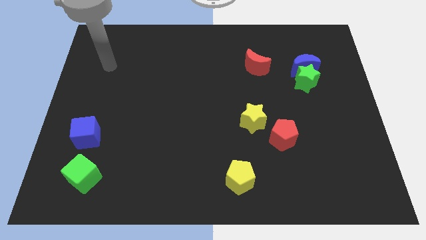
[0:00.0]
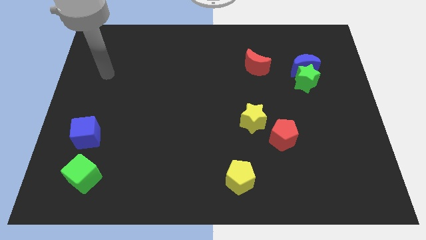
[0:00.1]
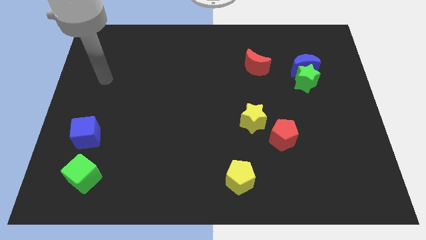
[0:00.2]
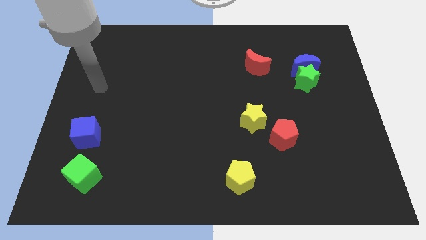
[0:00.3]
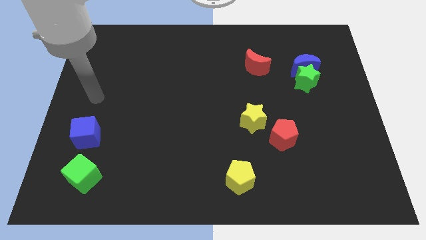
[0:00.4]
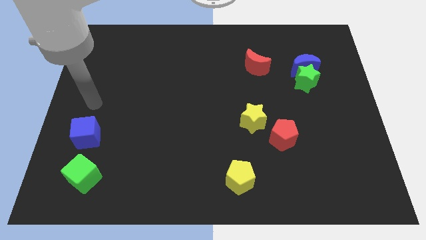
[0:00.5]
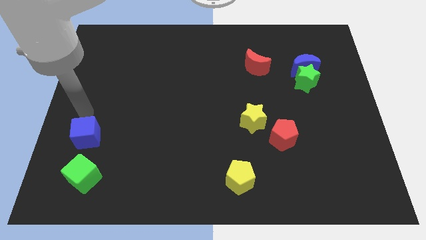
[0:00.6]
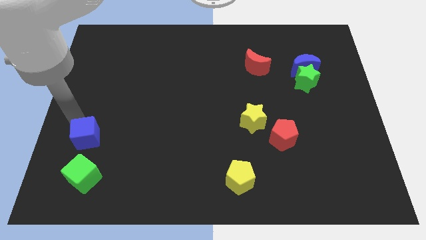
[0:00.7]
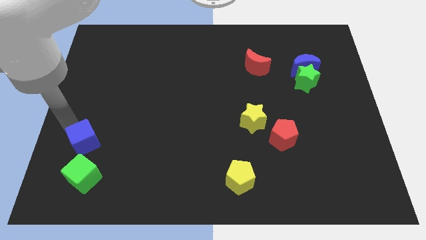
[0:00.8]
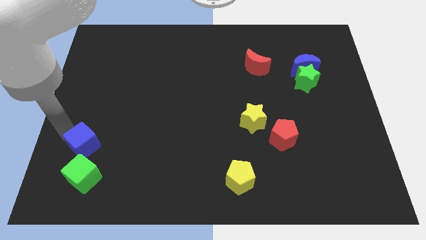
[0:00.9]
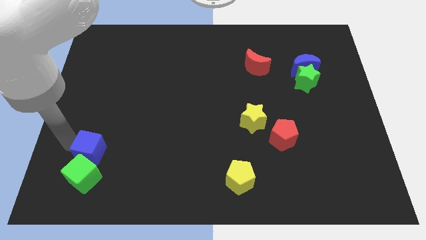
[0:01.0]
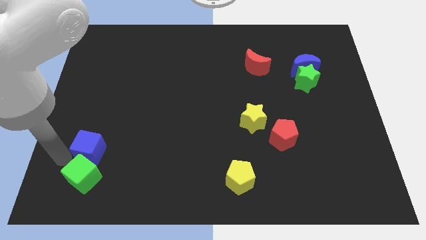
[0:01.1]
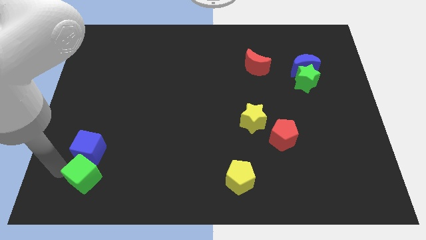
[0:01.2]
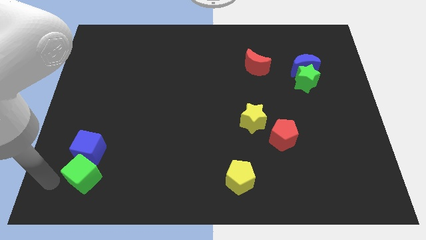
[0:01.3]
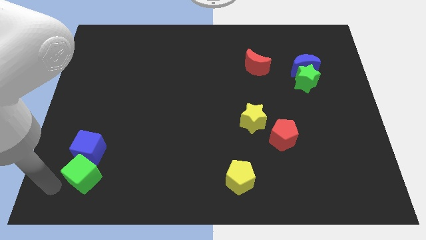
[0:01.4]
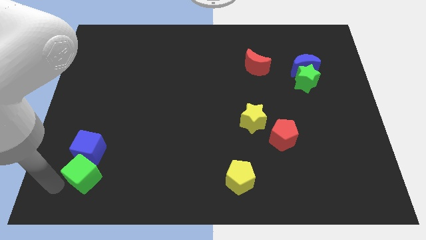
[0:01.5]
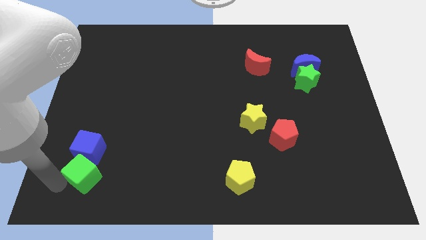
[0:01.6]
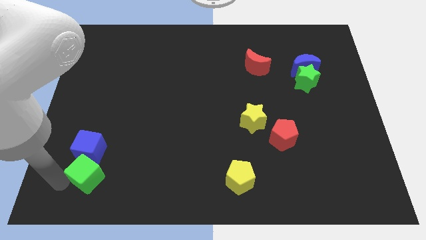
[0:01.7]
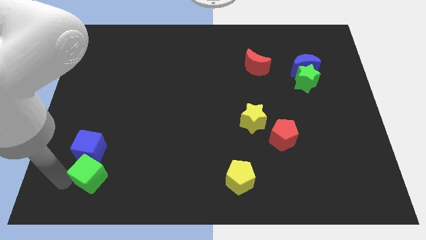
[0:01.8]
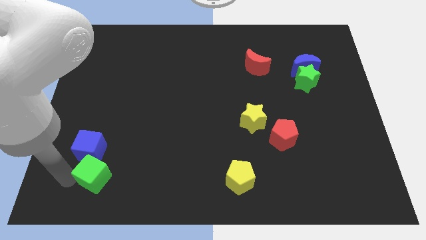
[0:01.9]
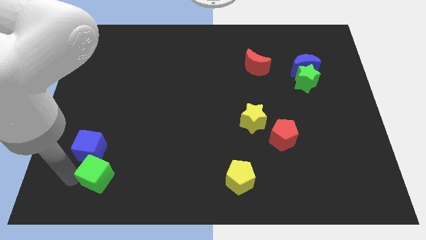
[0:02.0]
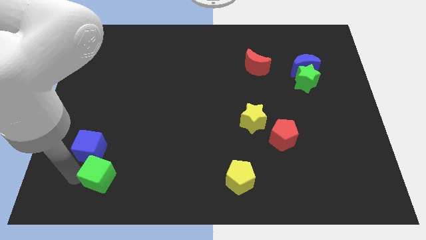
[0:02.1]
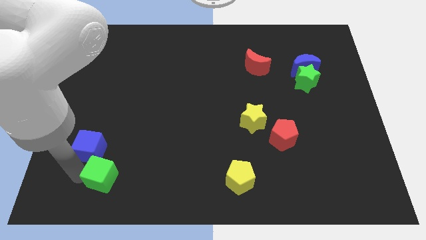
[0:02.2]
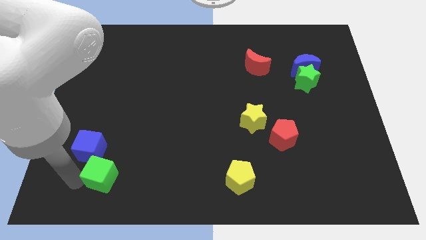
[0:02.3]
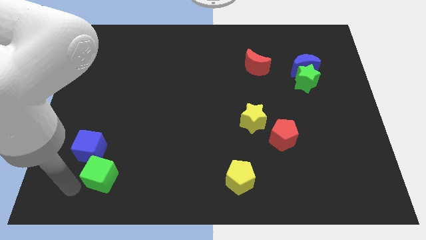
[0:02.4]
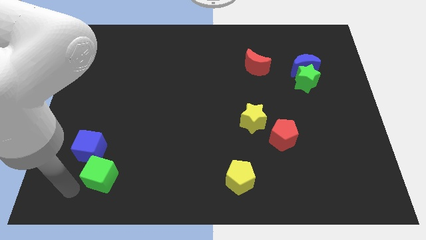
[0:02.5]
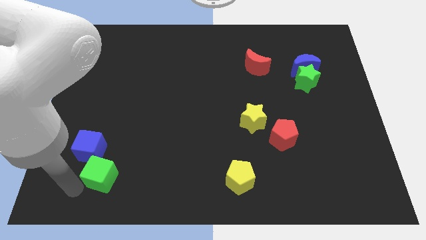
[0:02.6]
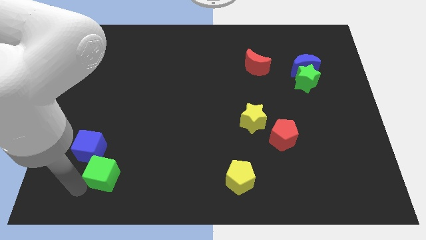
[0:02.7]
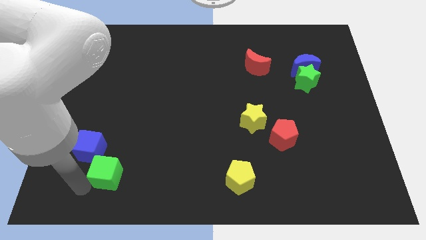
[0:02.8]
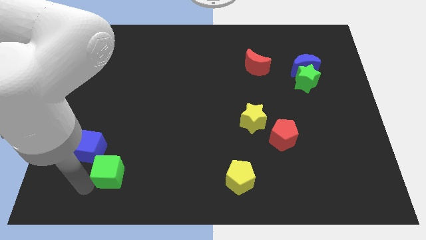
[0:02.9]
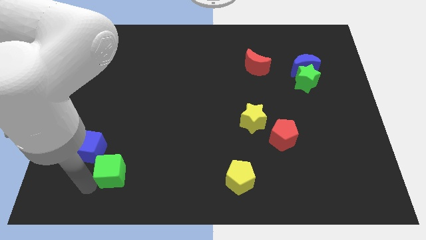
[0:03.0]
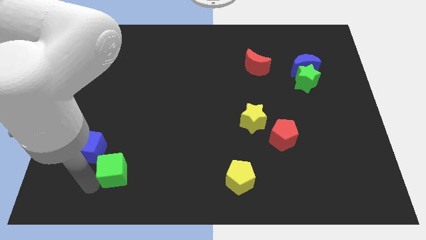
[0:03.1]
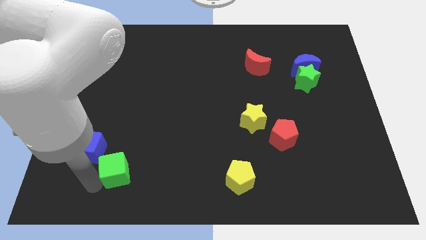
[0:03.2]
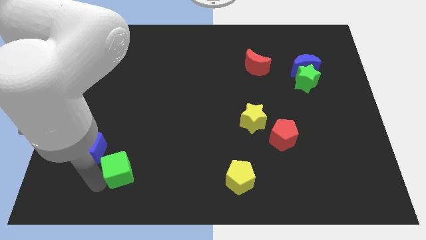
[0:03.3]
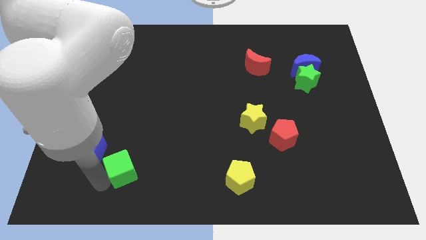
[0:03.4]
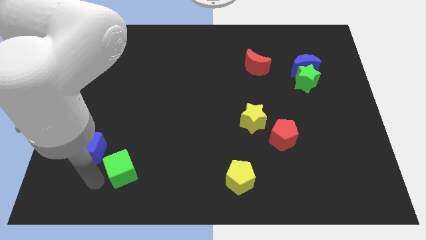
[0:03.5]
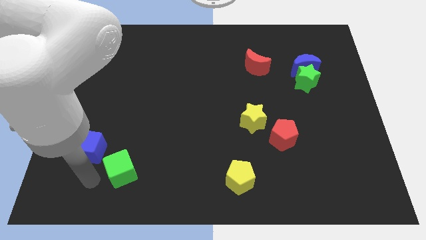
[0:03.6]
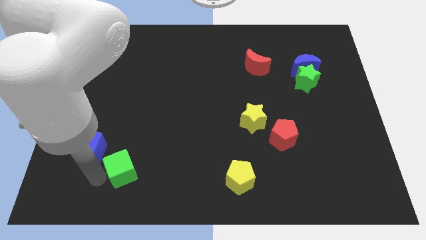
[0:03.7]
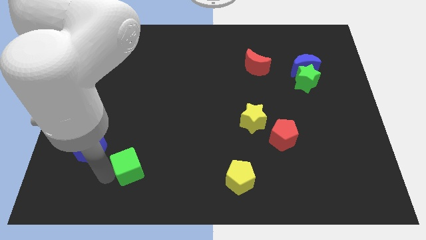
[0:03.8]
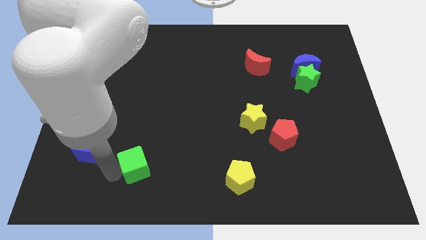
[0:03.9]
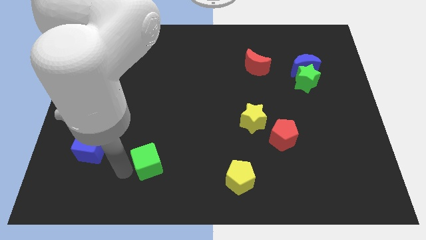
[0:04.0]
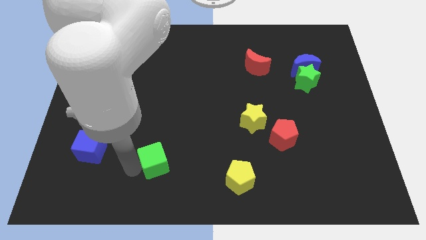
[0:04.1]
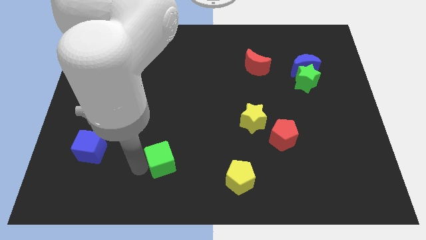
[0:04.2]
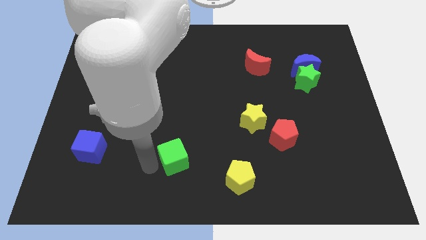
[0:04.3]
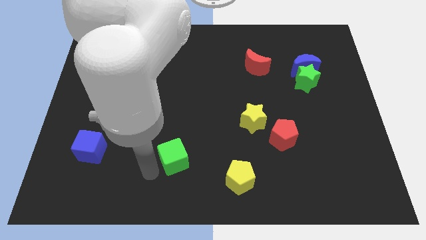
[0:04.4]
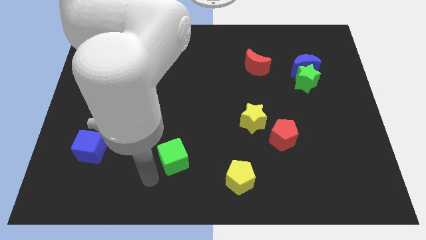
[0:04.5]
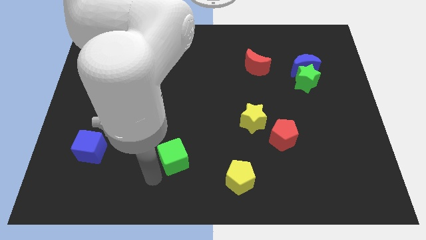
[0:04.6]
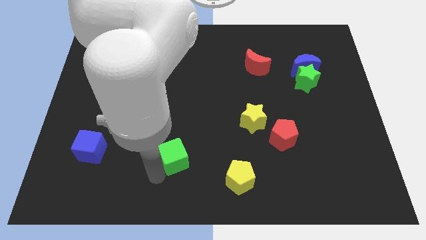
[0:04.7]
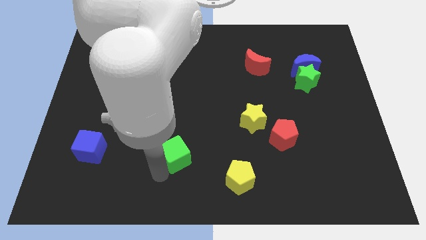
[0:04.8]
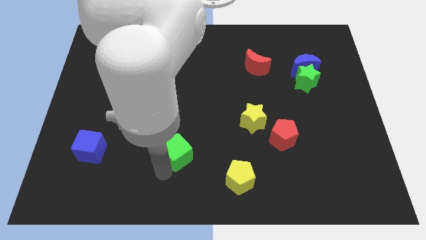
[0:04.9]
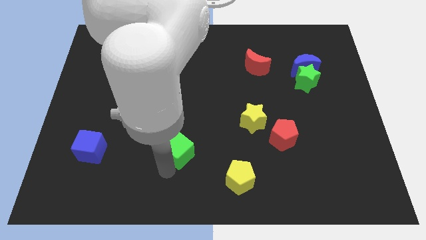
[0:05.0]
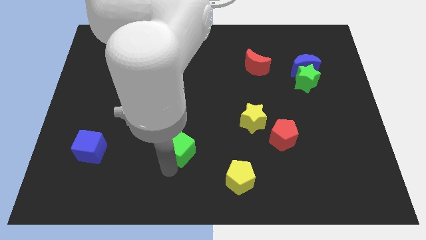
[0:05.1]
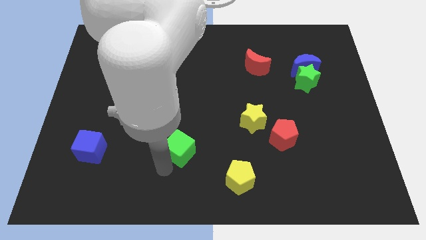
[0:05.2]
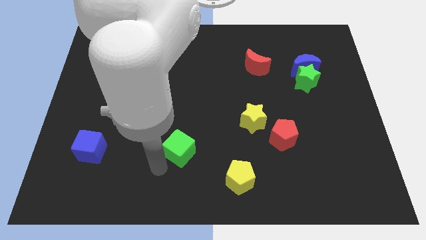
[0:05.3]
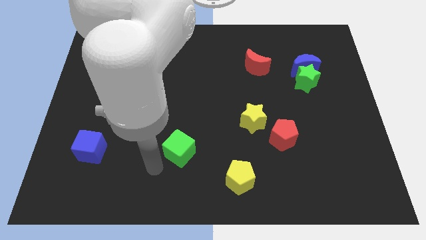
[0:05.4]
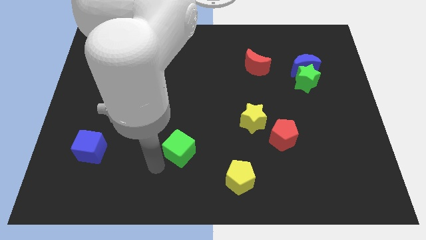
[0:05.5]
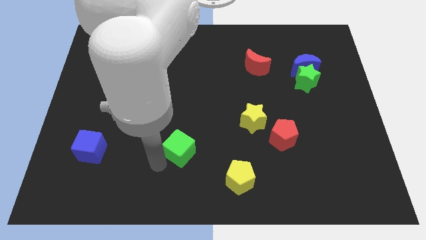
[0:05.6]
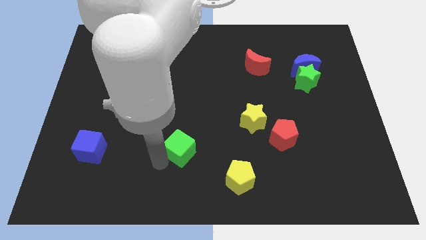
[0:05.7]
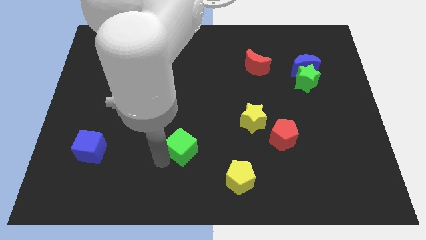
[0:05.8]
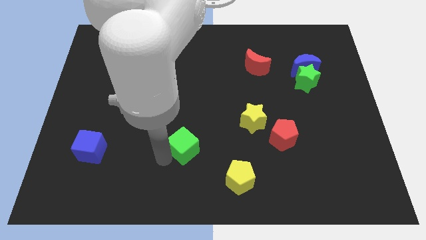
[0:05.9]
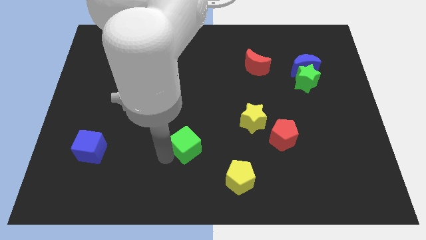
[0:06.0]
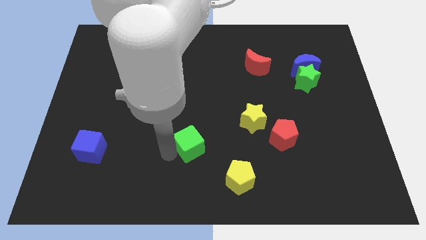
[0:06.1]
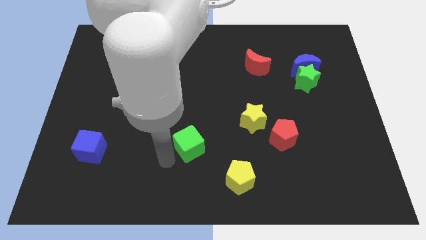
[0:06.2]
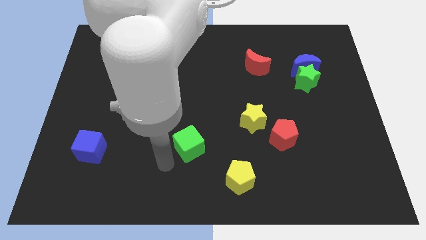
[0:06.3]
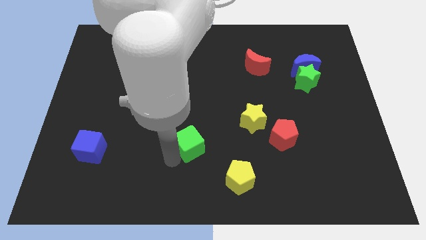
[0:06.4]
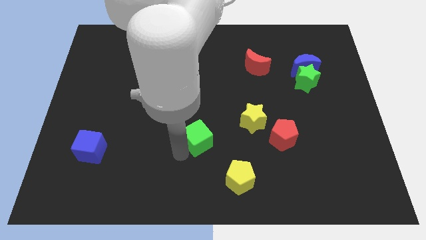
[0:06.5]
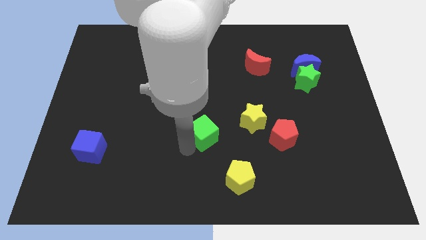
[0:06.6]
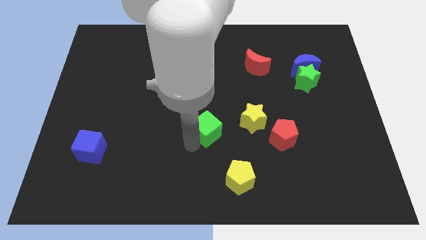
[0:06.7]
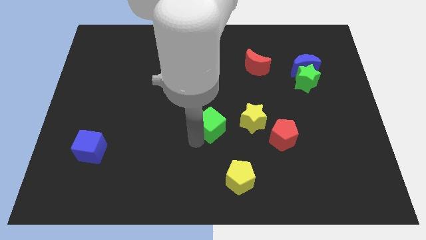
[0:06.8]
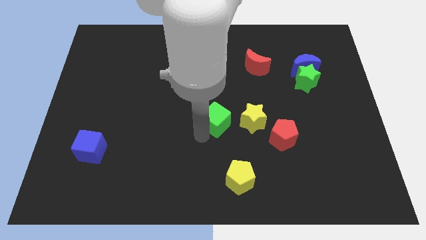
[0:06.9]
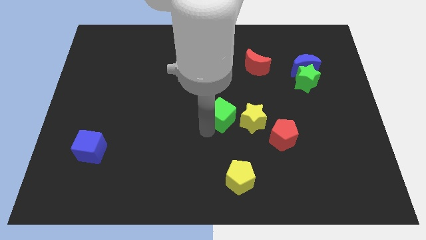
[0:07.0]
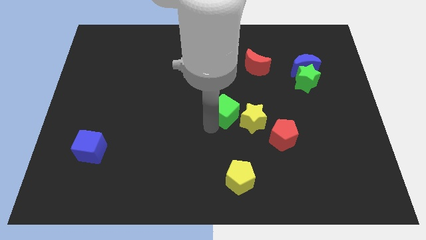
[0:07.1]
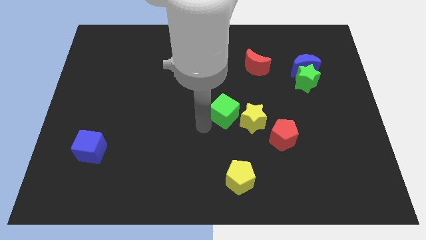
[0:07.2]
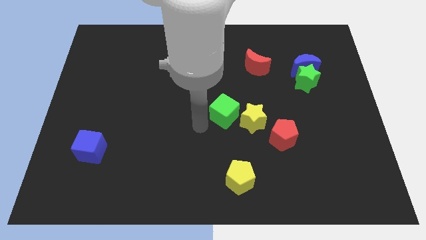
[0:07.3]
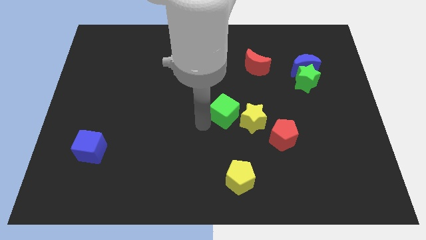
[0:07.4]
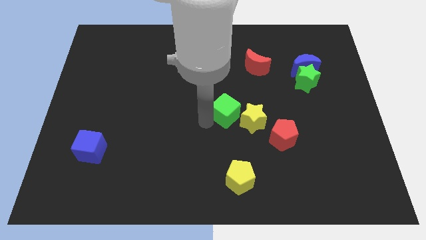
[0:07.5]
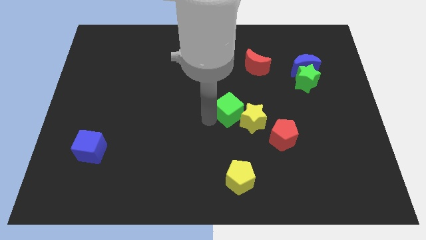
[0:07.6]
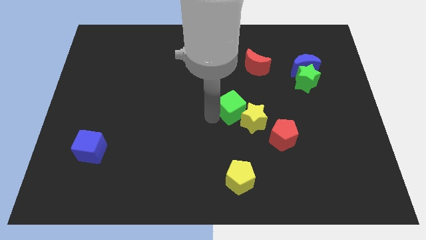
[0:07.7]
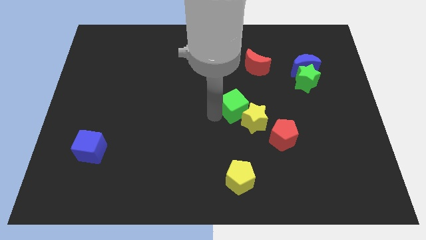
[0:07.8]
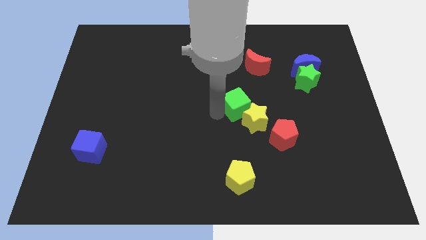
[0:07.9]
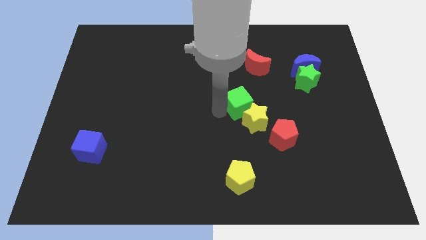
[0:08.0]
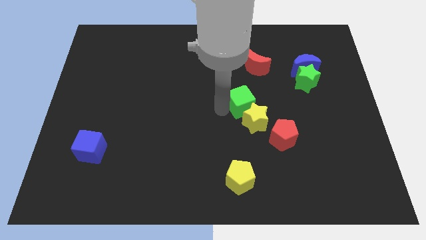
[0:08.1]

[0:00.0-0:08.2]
slide the green cube to the bottom side of the red moon
